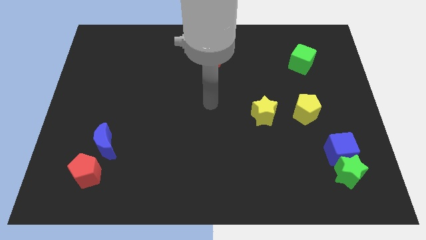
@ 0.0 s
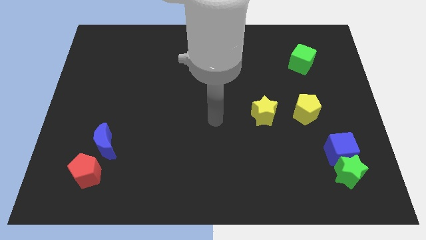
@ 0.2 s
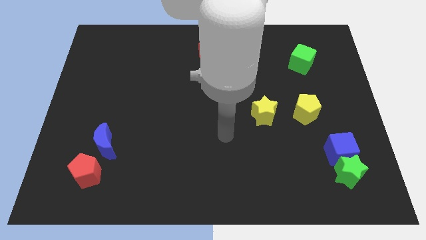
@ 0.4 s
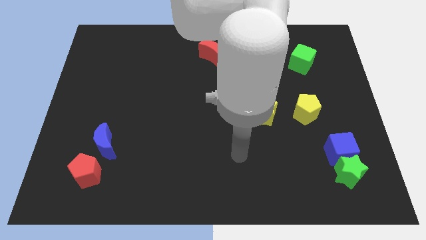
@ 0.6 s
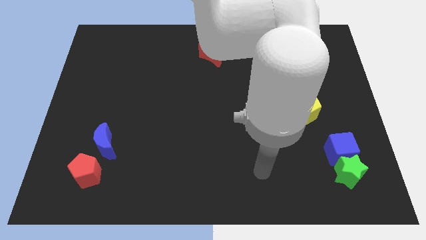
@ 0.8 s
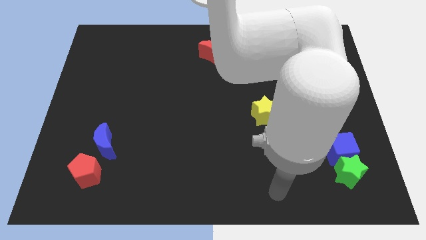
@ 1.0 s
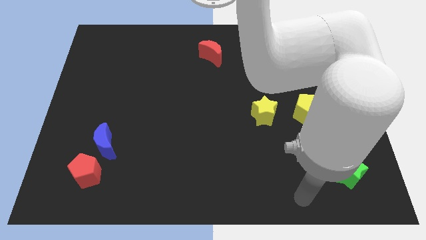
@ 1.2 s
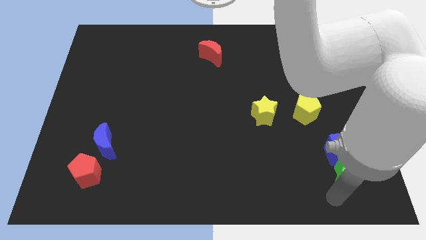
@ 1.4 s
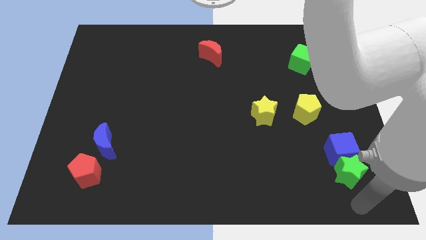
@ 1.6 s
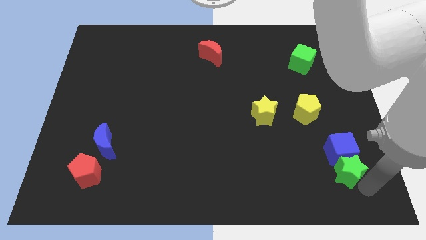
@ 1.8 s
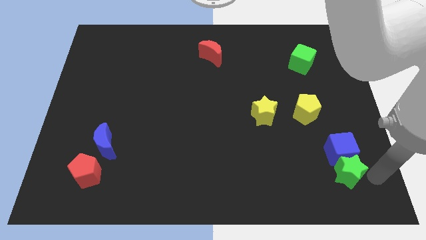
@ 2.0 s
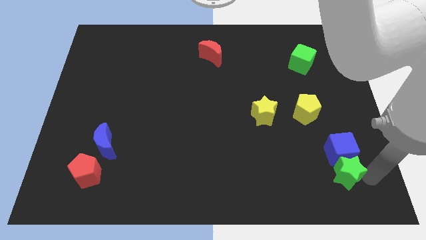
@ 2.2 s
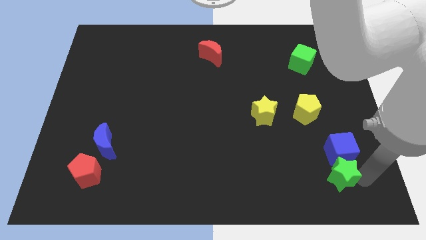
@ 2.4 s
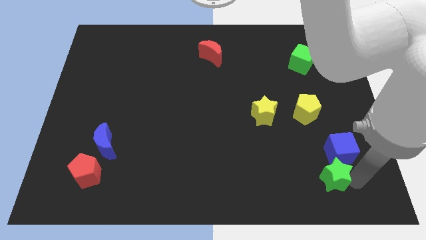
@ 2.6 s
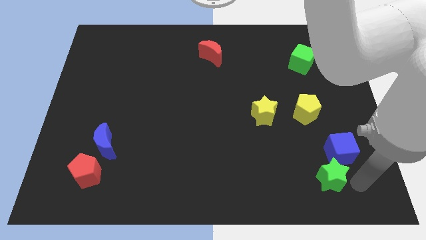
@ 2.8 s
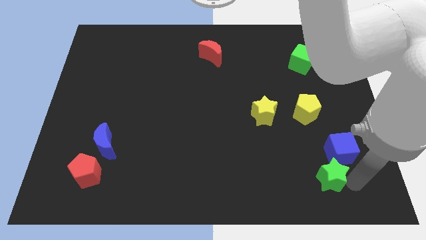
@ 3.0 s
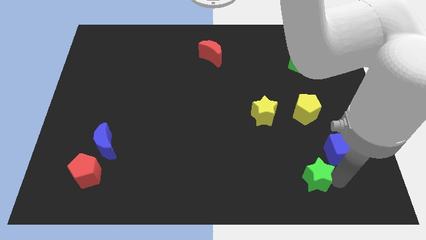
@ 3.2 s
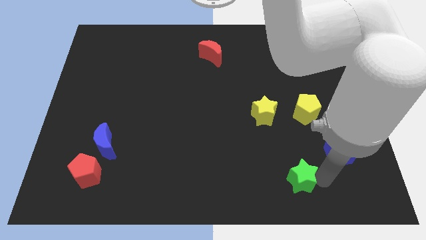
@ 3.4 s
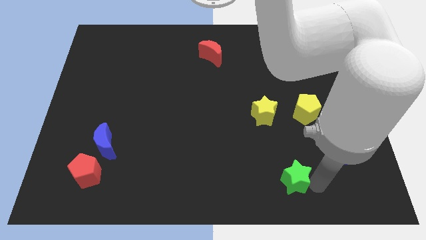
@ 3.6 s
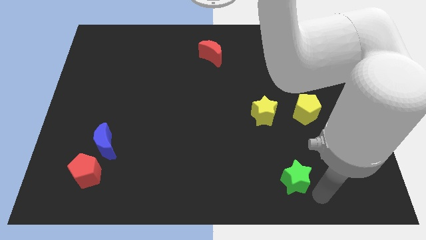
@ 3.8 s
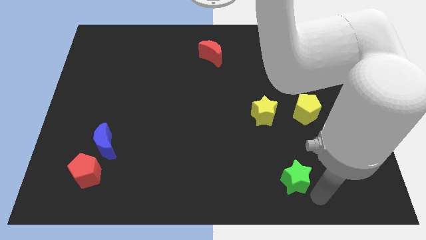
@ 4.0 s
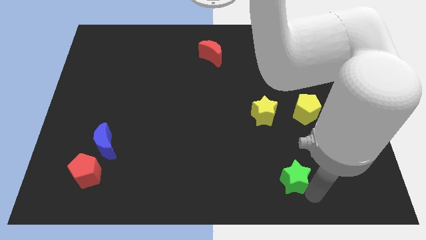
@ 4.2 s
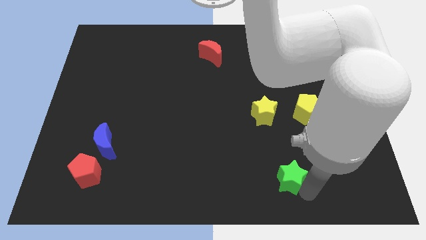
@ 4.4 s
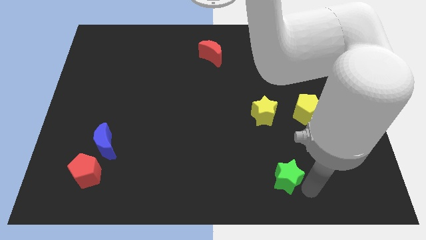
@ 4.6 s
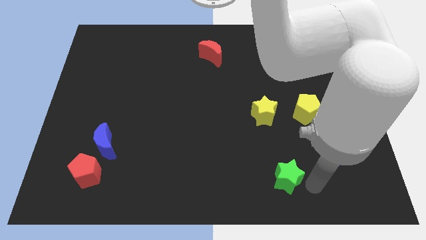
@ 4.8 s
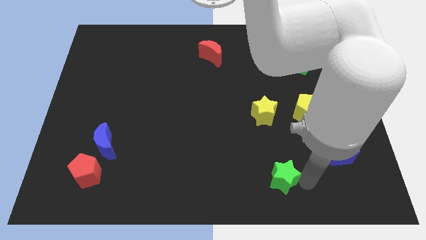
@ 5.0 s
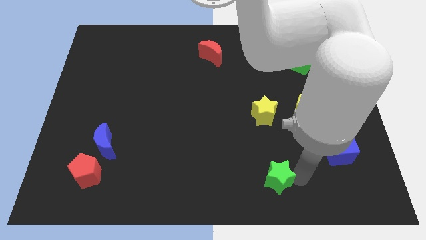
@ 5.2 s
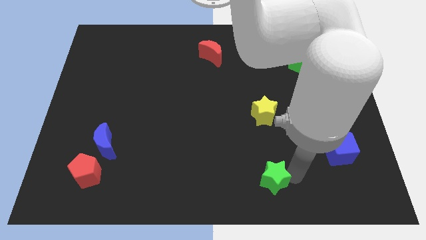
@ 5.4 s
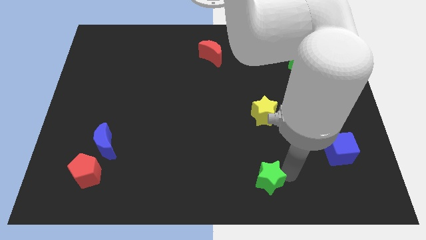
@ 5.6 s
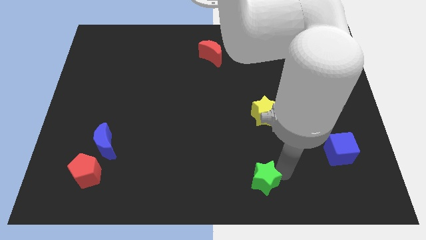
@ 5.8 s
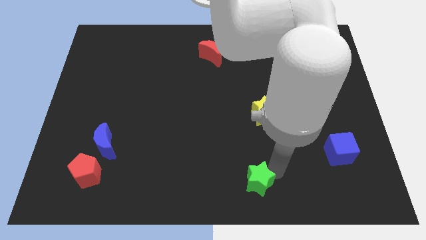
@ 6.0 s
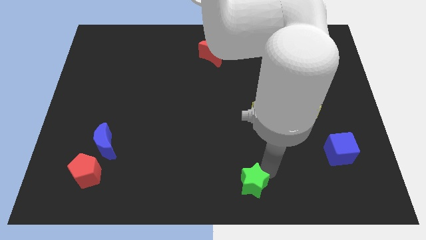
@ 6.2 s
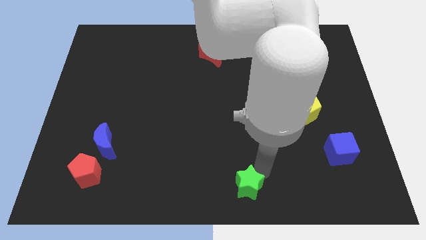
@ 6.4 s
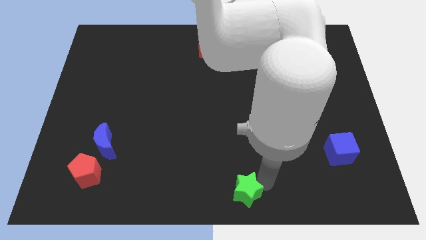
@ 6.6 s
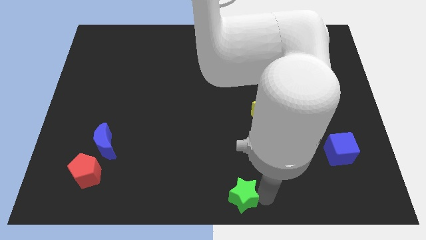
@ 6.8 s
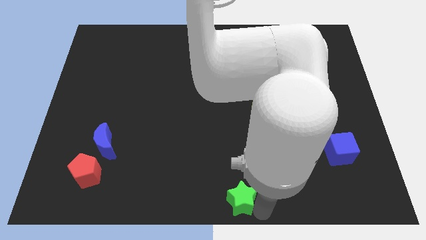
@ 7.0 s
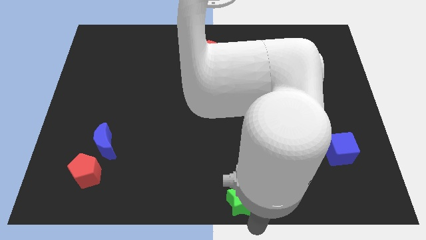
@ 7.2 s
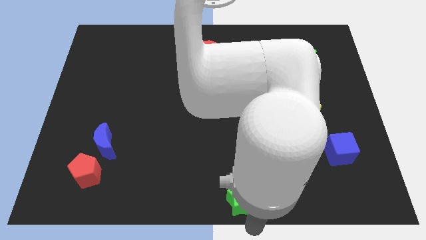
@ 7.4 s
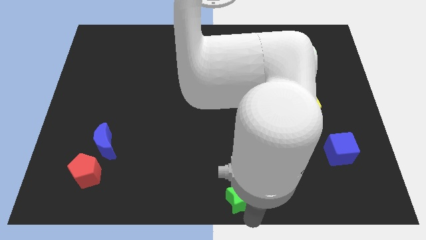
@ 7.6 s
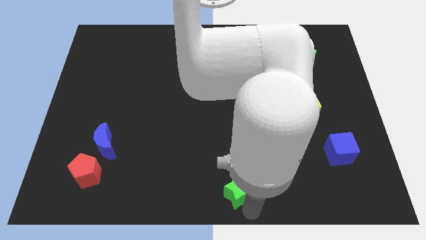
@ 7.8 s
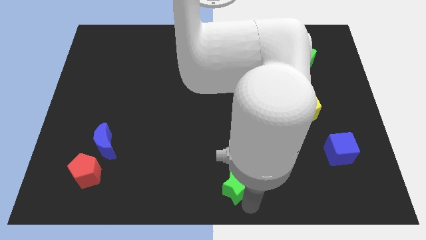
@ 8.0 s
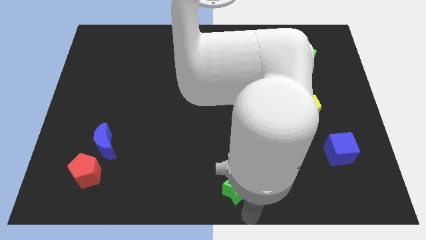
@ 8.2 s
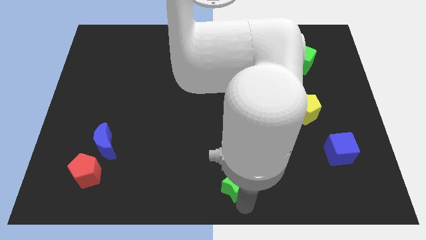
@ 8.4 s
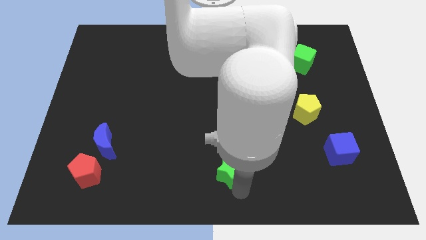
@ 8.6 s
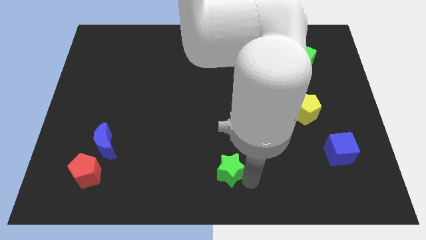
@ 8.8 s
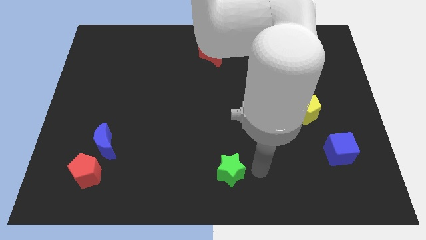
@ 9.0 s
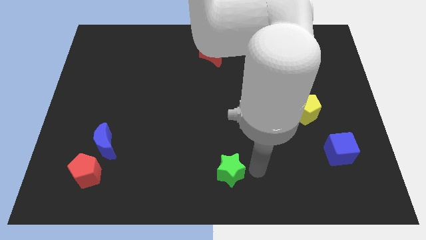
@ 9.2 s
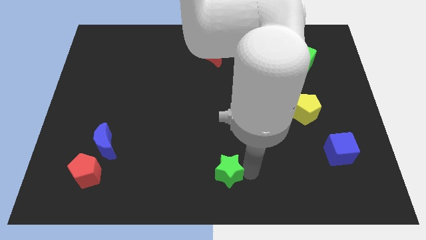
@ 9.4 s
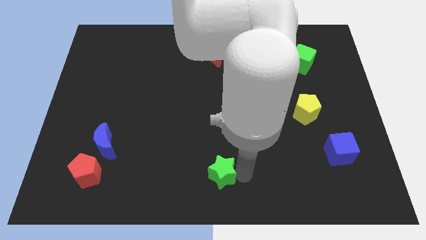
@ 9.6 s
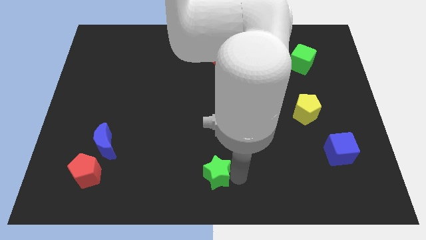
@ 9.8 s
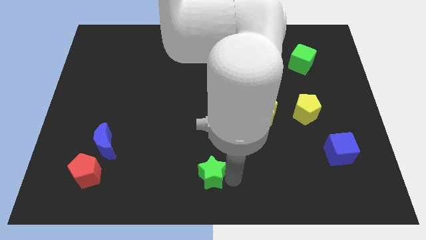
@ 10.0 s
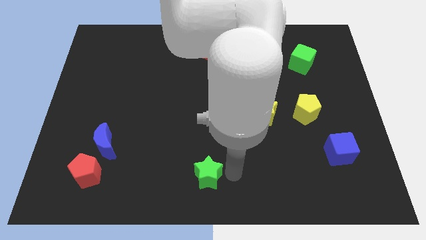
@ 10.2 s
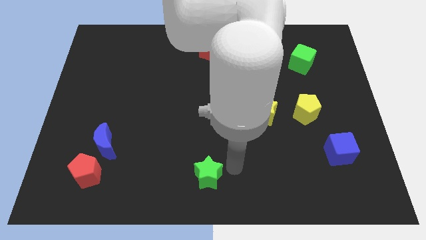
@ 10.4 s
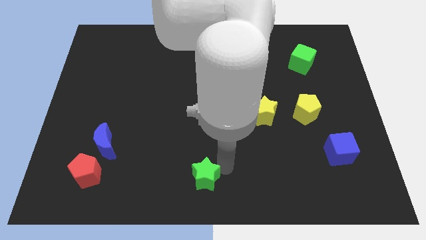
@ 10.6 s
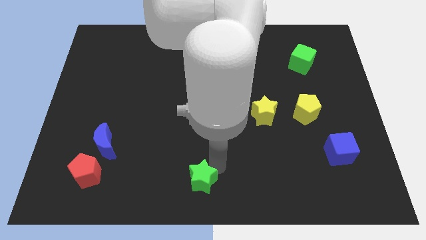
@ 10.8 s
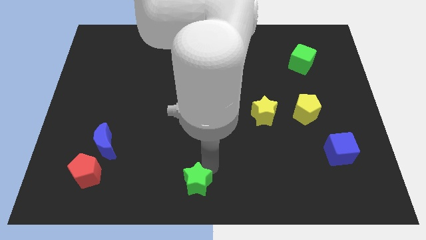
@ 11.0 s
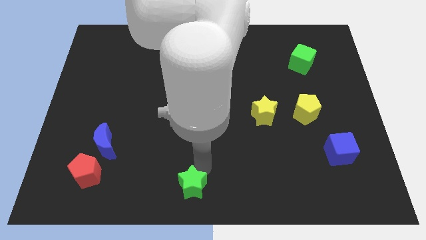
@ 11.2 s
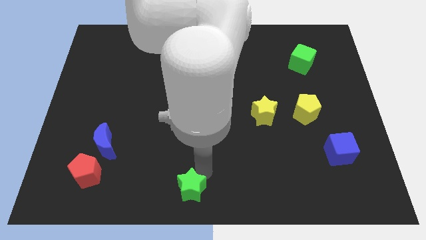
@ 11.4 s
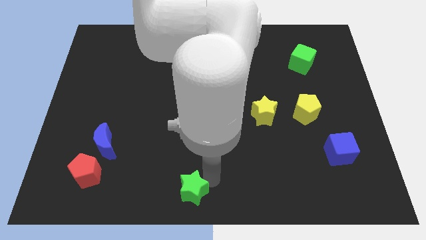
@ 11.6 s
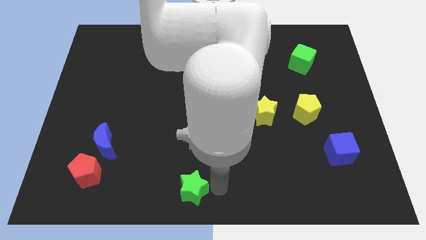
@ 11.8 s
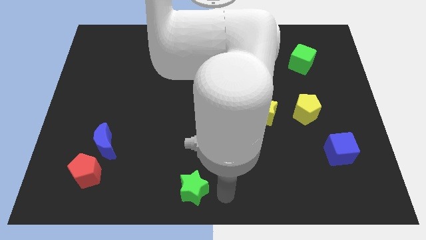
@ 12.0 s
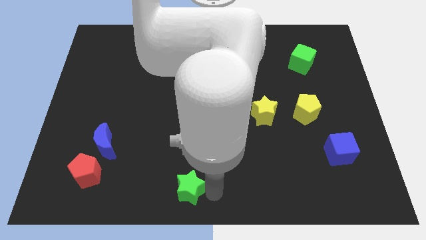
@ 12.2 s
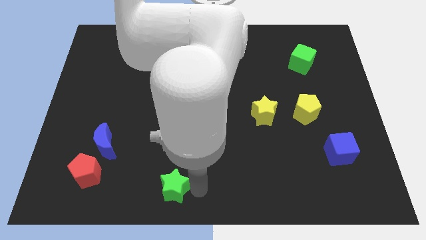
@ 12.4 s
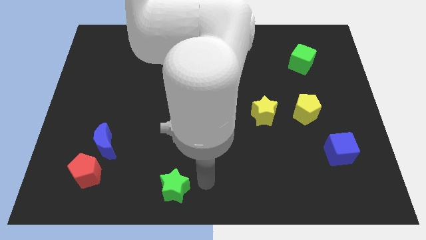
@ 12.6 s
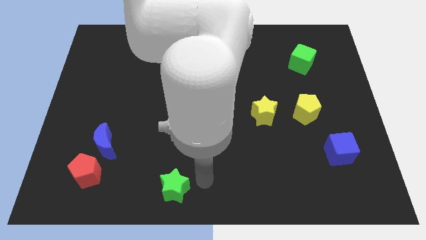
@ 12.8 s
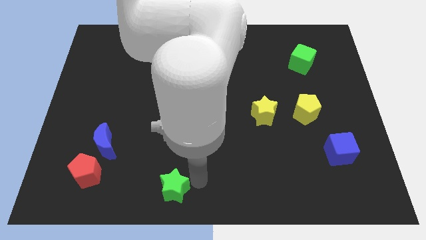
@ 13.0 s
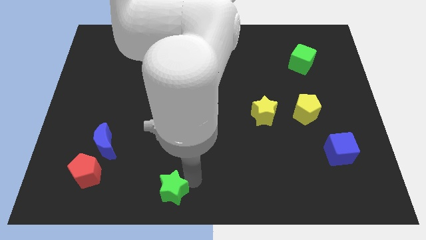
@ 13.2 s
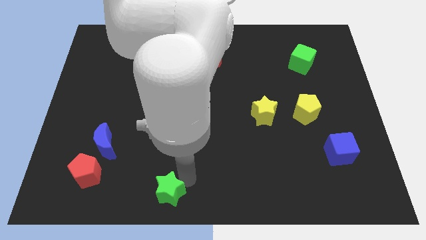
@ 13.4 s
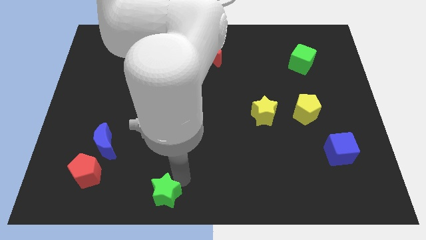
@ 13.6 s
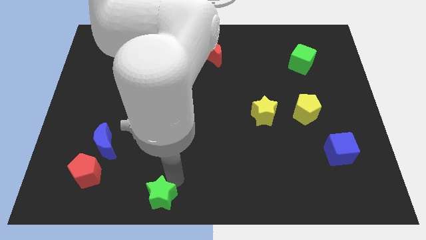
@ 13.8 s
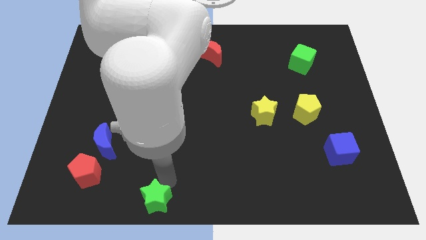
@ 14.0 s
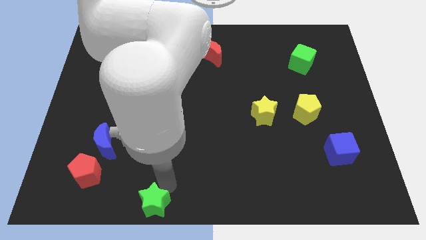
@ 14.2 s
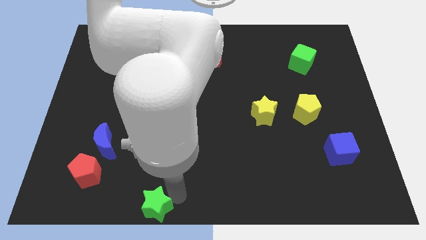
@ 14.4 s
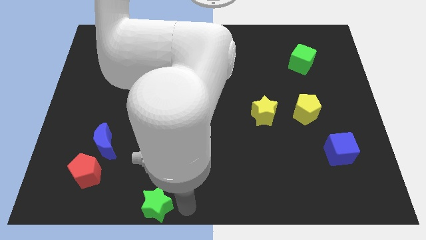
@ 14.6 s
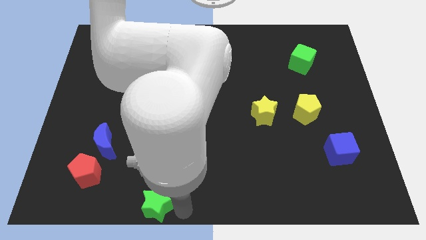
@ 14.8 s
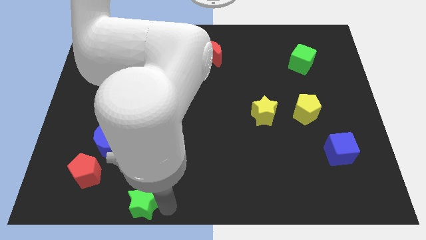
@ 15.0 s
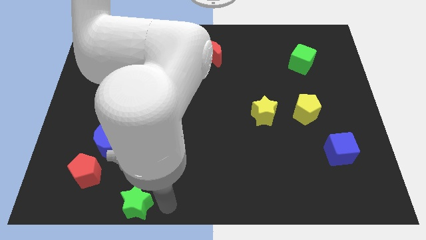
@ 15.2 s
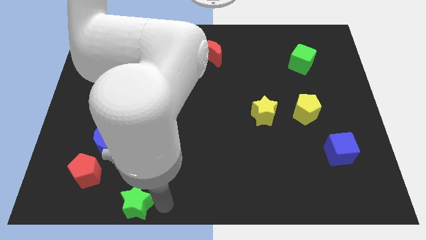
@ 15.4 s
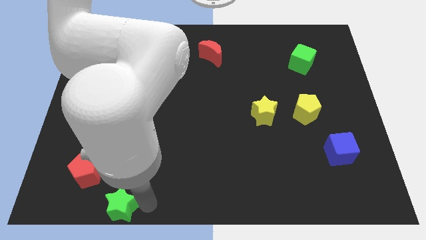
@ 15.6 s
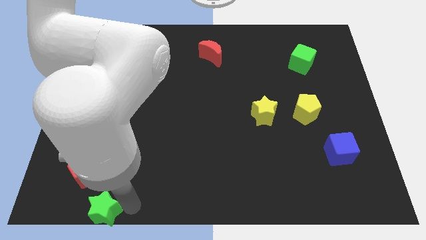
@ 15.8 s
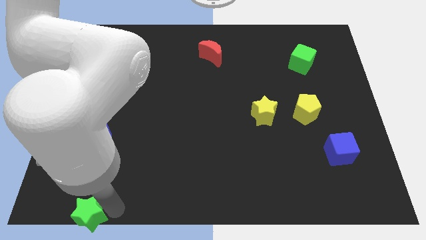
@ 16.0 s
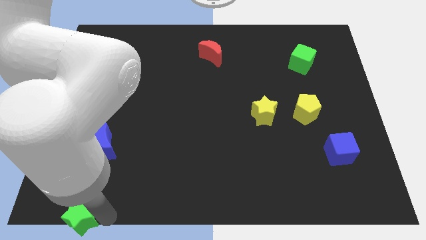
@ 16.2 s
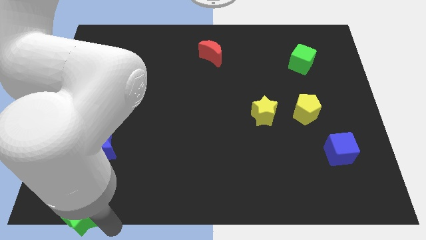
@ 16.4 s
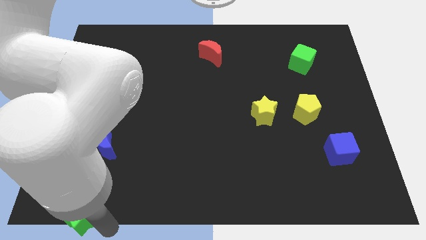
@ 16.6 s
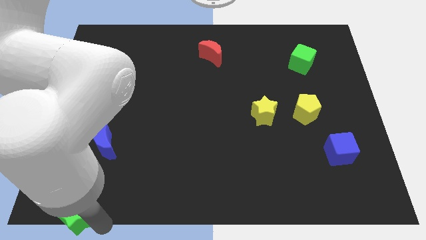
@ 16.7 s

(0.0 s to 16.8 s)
move the green star to the bottom left of the board
